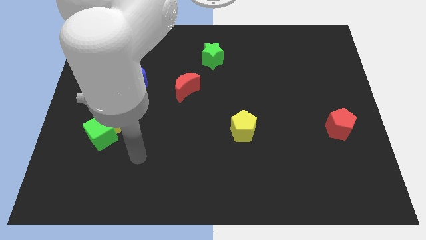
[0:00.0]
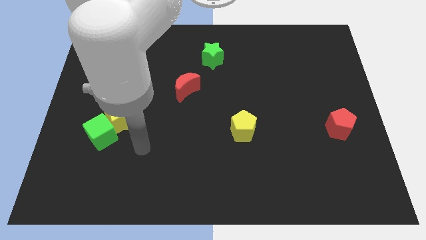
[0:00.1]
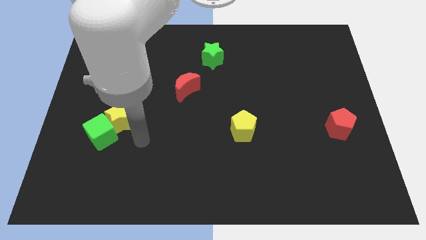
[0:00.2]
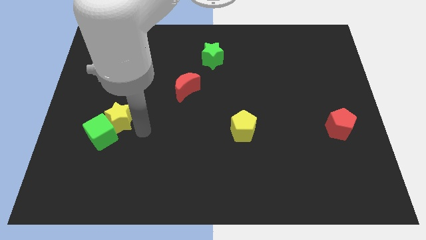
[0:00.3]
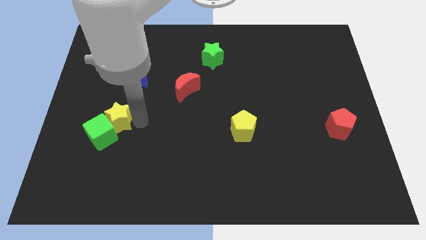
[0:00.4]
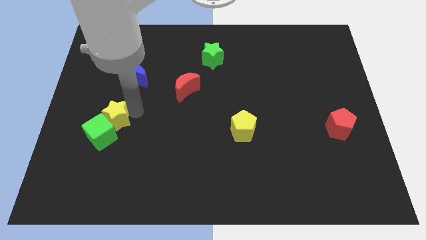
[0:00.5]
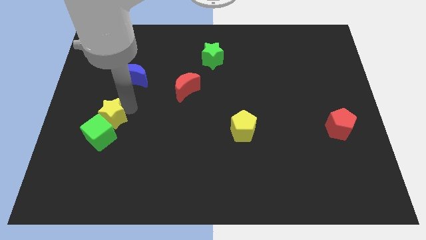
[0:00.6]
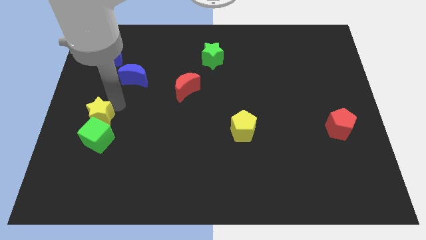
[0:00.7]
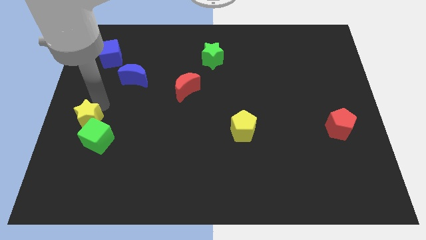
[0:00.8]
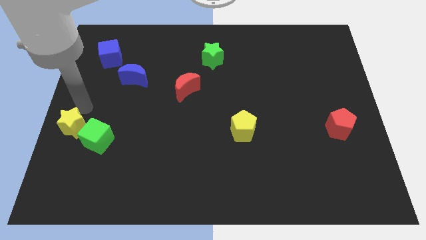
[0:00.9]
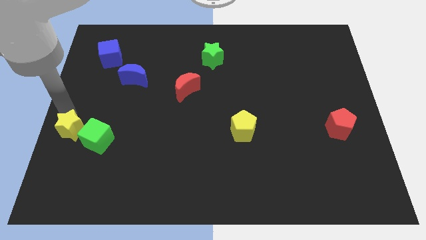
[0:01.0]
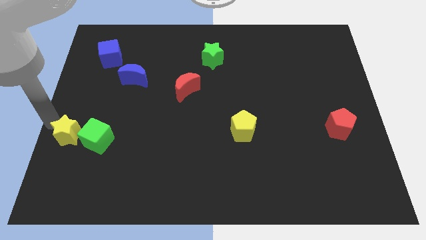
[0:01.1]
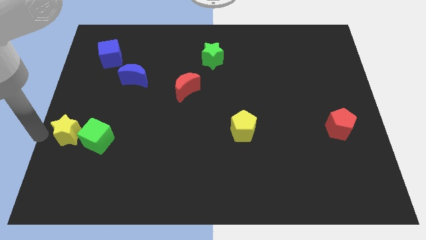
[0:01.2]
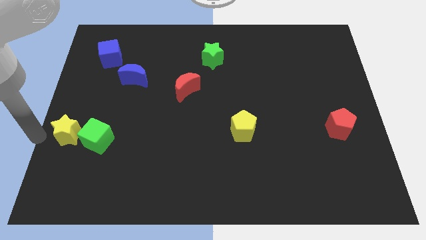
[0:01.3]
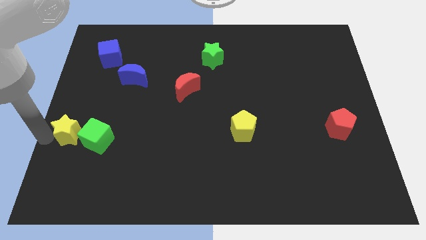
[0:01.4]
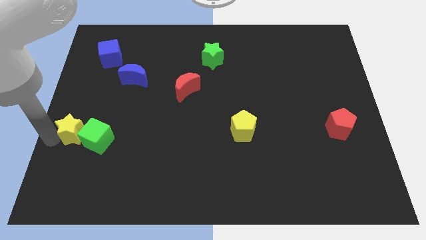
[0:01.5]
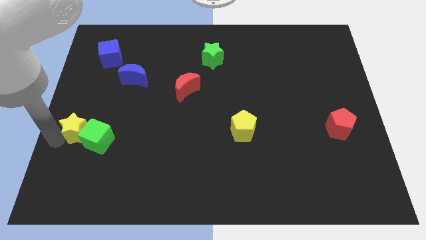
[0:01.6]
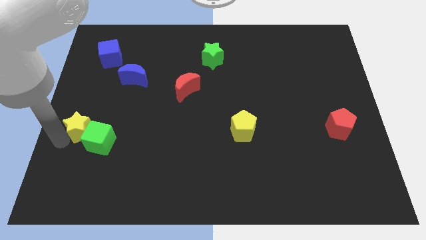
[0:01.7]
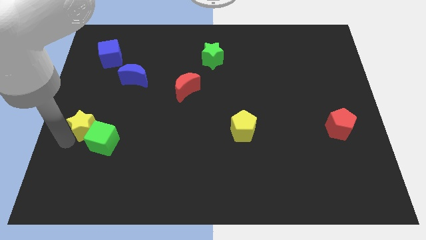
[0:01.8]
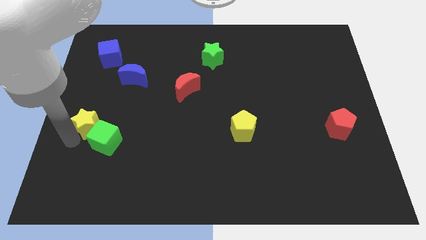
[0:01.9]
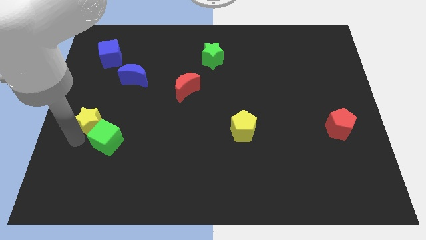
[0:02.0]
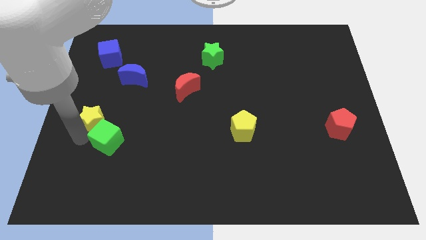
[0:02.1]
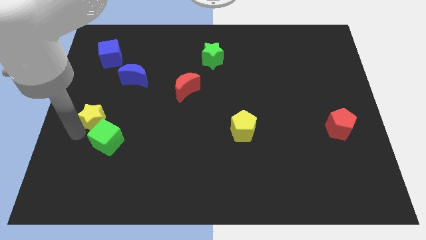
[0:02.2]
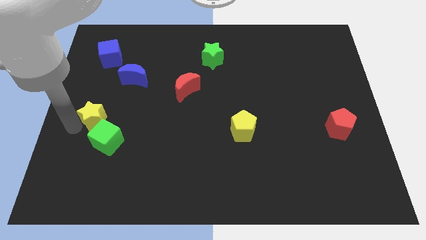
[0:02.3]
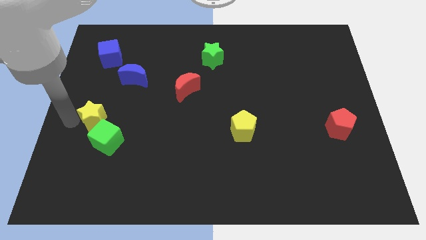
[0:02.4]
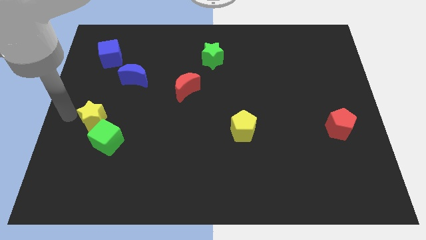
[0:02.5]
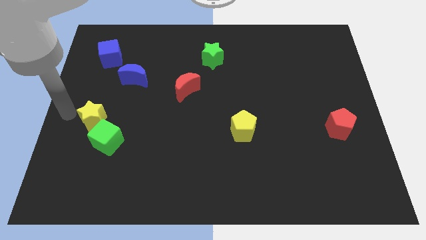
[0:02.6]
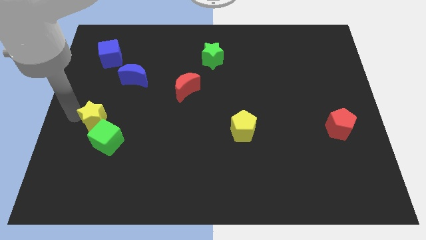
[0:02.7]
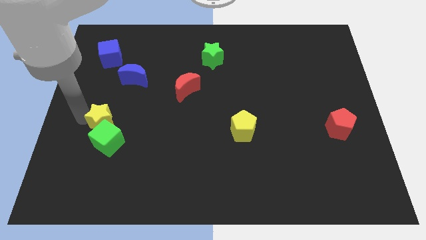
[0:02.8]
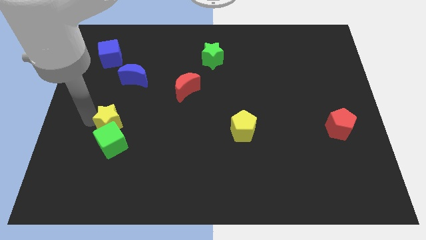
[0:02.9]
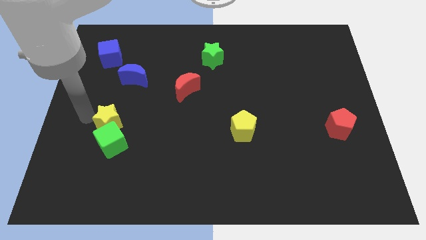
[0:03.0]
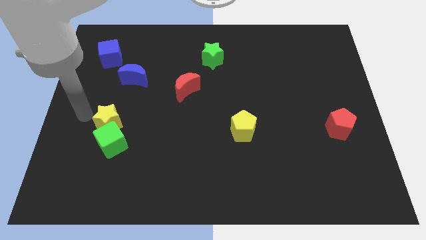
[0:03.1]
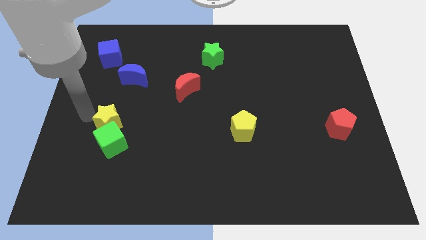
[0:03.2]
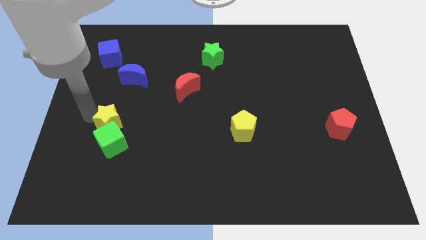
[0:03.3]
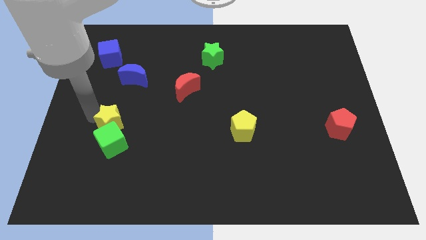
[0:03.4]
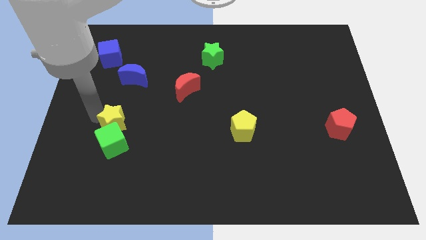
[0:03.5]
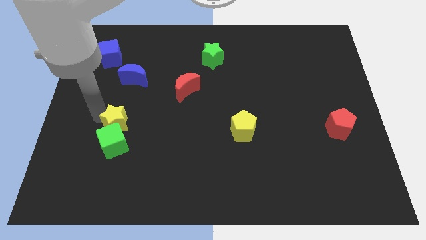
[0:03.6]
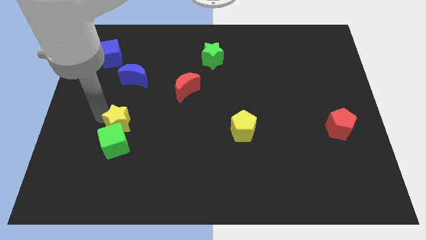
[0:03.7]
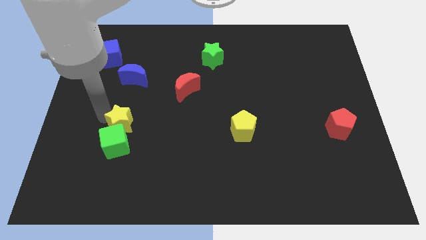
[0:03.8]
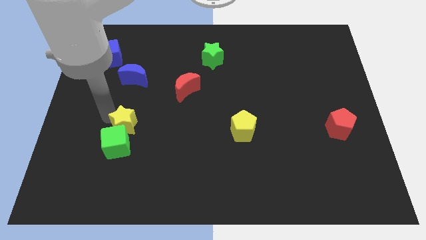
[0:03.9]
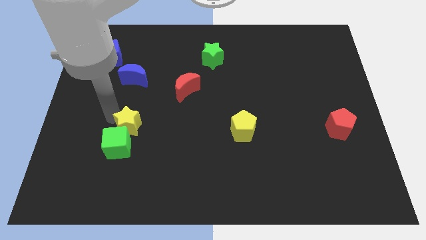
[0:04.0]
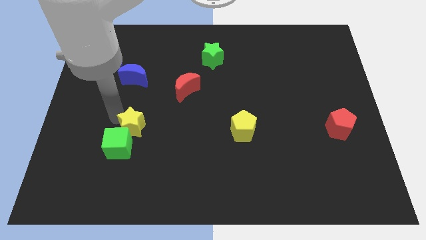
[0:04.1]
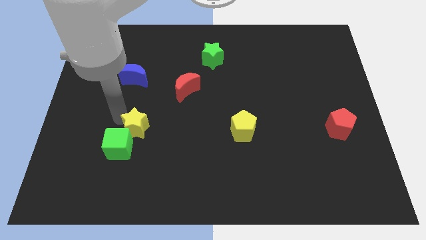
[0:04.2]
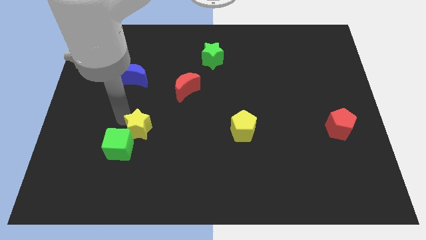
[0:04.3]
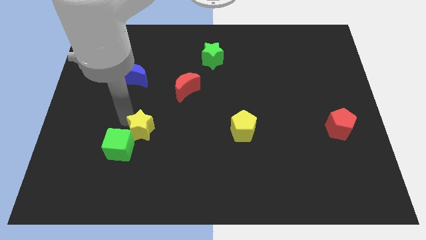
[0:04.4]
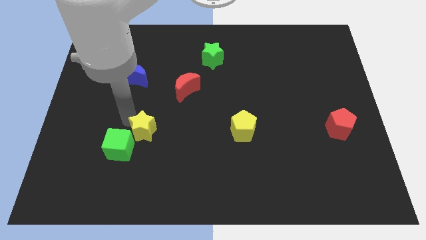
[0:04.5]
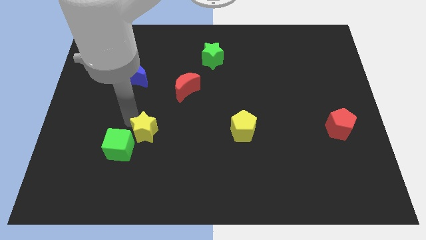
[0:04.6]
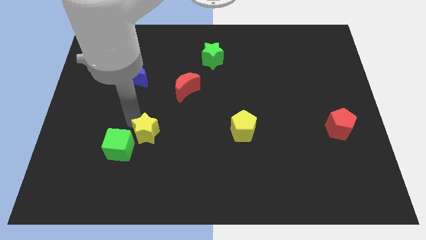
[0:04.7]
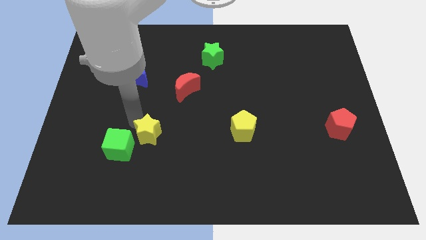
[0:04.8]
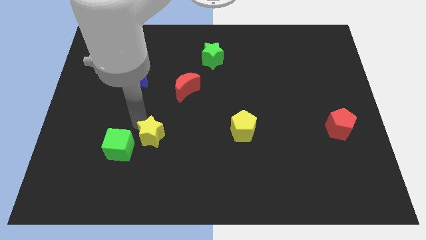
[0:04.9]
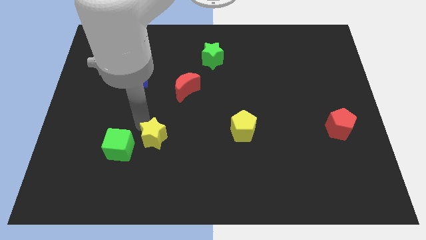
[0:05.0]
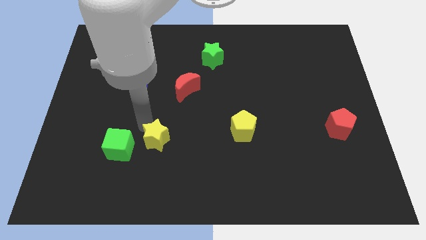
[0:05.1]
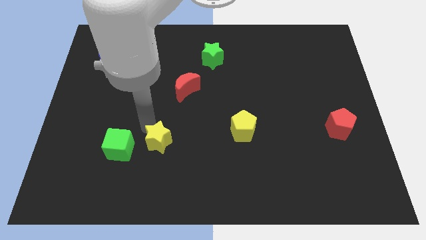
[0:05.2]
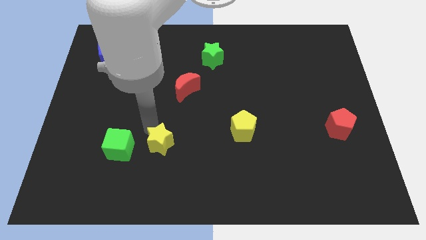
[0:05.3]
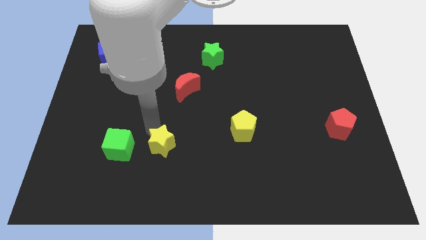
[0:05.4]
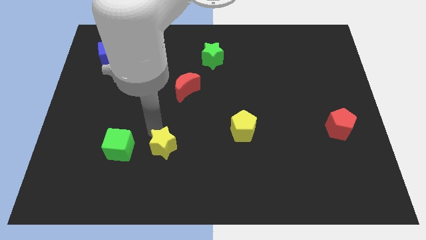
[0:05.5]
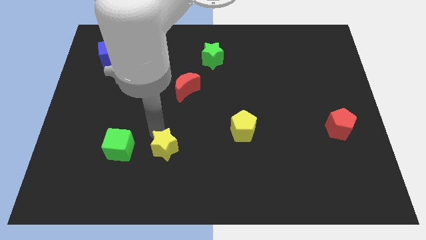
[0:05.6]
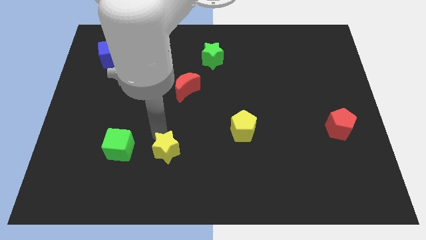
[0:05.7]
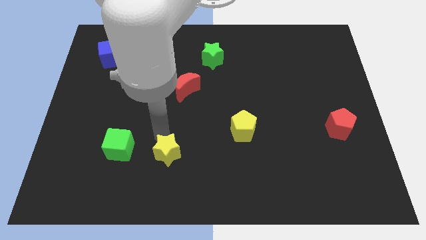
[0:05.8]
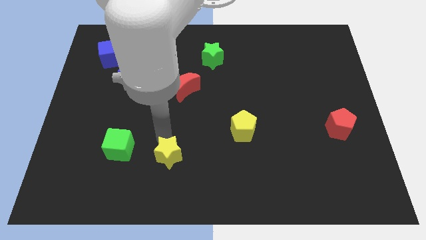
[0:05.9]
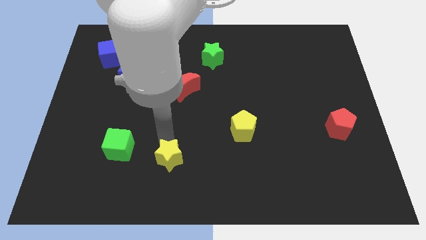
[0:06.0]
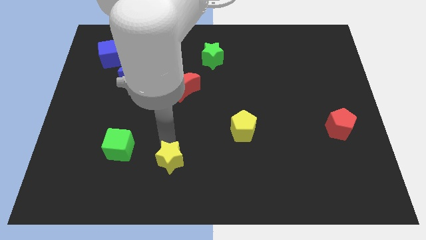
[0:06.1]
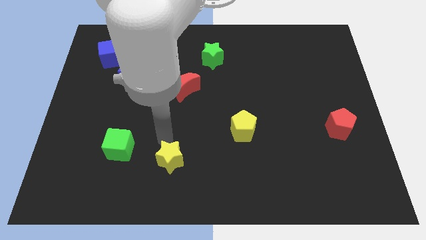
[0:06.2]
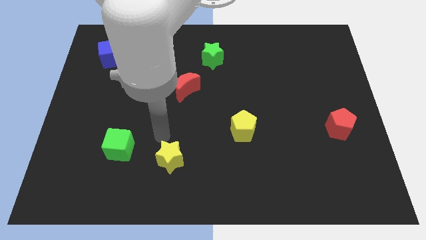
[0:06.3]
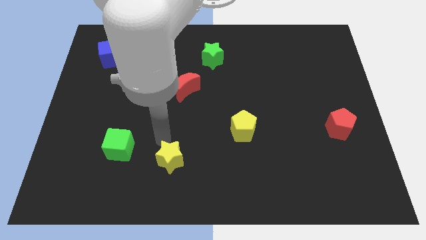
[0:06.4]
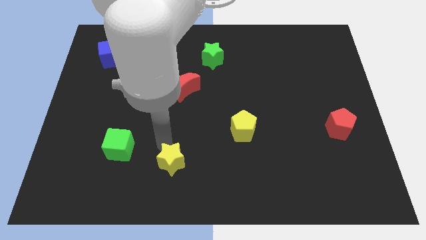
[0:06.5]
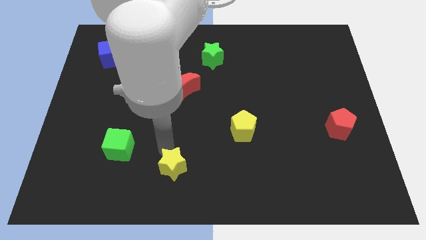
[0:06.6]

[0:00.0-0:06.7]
slide the yellow star to the bottom side

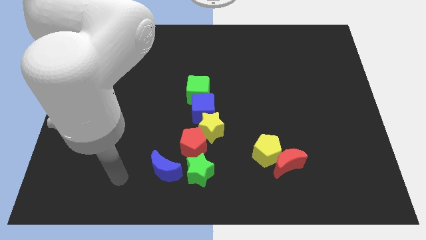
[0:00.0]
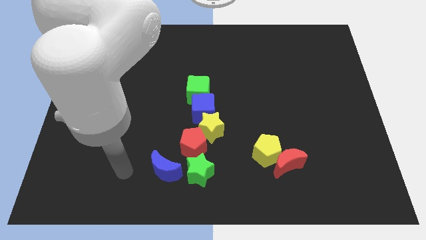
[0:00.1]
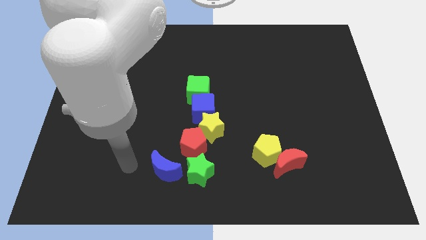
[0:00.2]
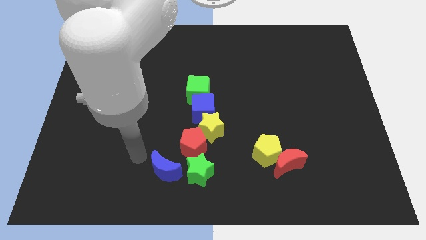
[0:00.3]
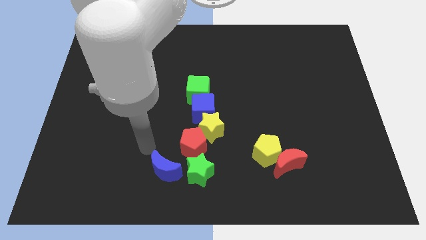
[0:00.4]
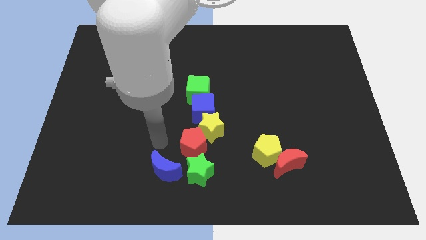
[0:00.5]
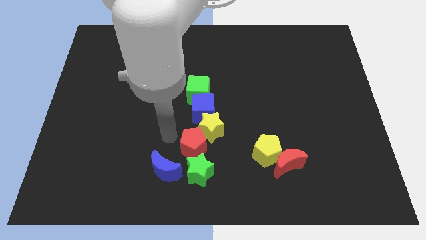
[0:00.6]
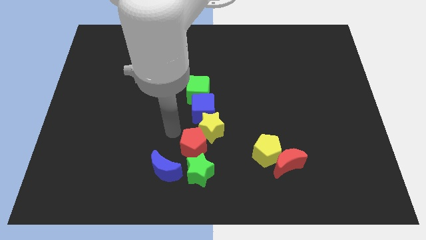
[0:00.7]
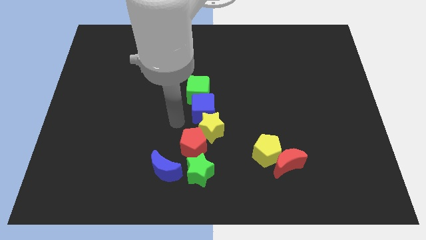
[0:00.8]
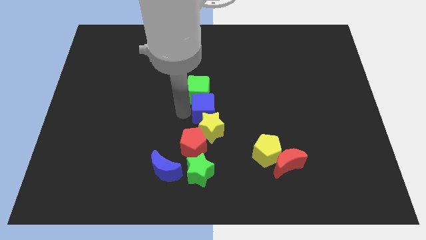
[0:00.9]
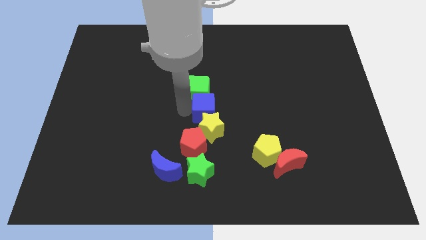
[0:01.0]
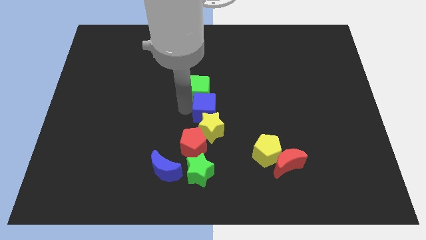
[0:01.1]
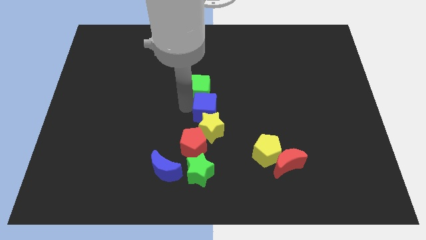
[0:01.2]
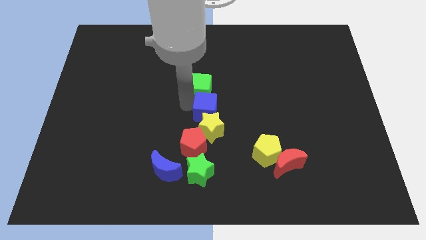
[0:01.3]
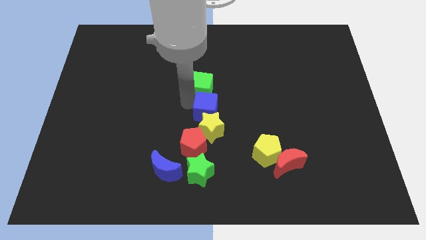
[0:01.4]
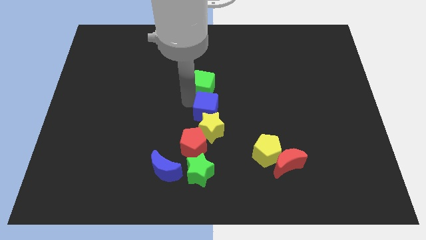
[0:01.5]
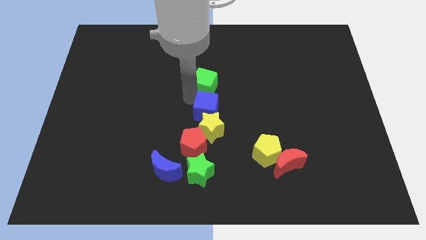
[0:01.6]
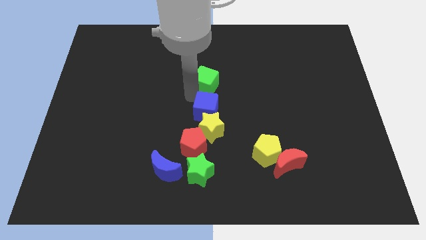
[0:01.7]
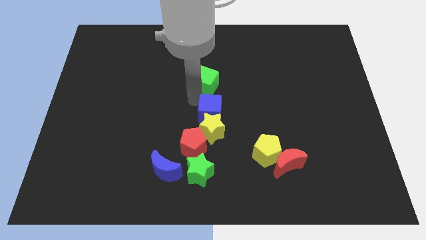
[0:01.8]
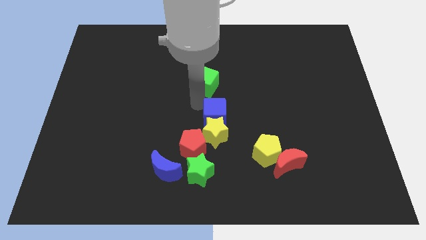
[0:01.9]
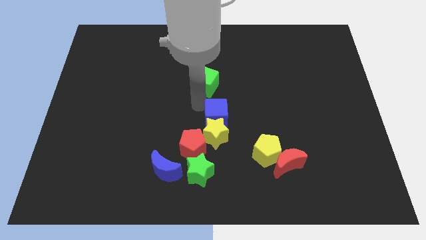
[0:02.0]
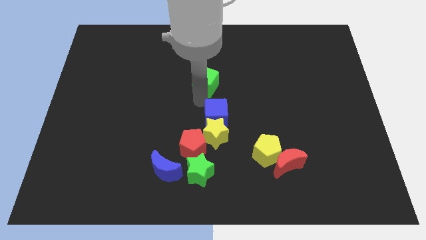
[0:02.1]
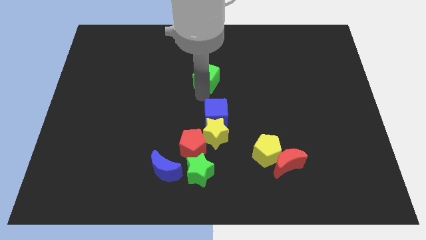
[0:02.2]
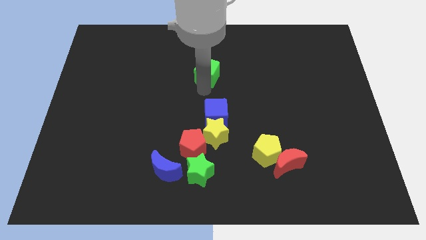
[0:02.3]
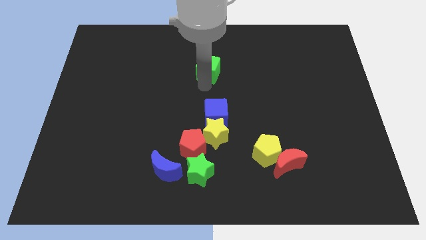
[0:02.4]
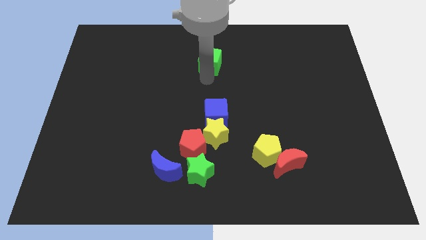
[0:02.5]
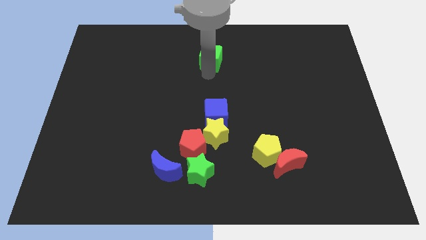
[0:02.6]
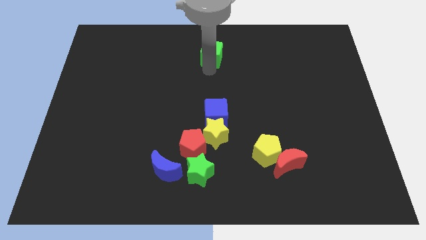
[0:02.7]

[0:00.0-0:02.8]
slide the green cube to the top
